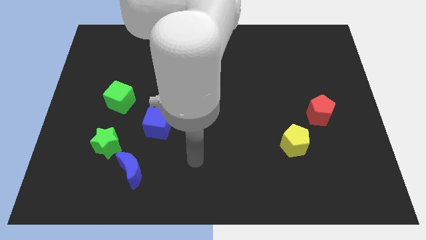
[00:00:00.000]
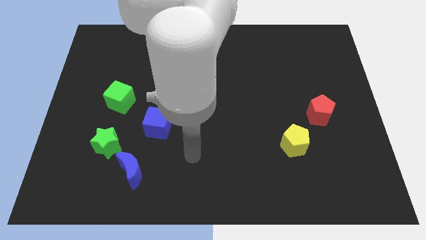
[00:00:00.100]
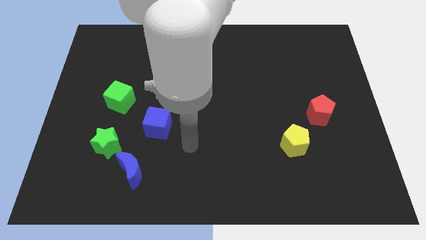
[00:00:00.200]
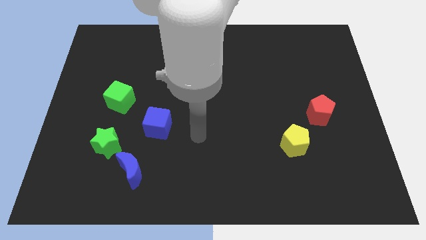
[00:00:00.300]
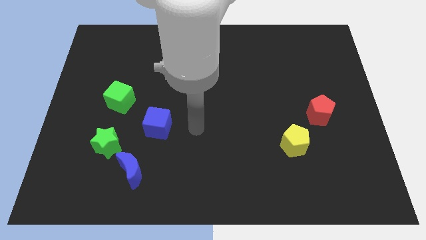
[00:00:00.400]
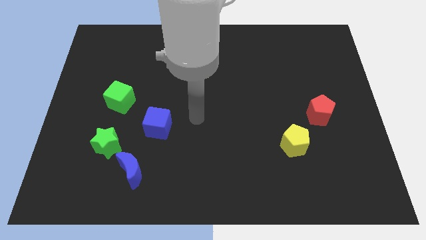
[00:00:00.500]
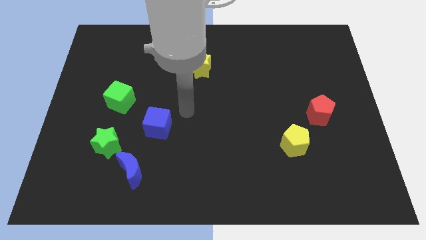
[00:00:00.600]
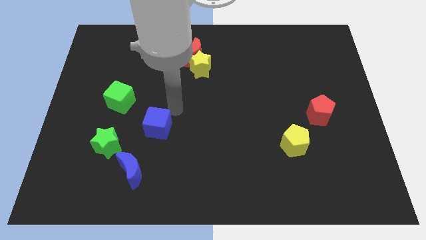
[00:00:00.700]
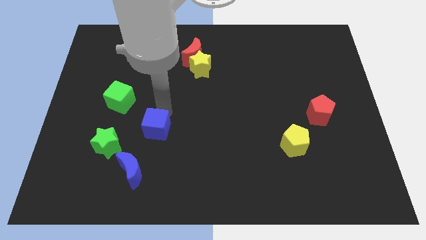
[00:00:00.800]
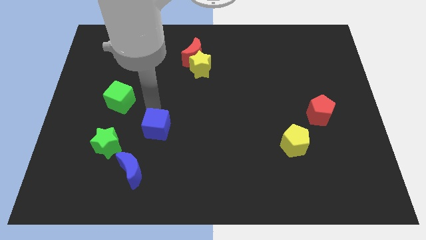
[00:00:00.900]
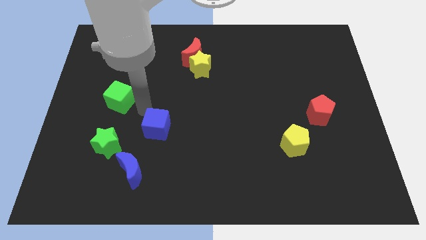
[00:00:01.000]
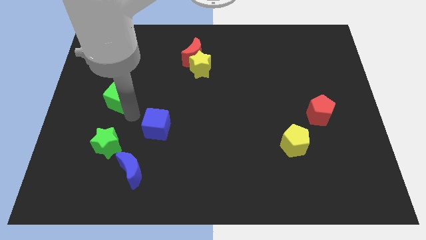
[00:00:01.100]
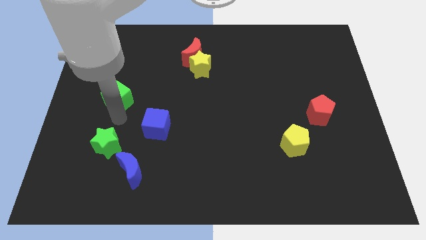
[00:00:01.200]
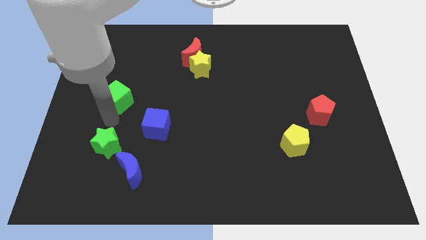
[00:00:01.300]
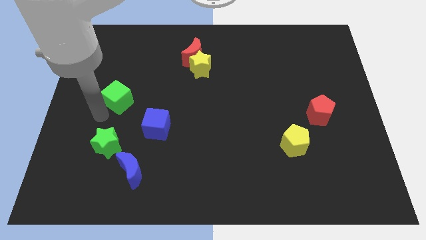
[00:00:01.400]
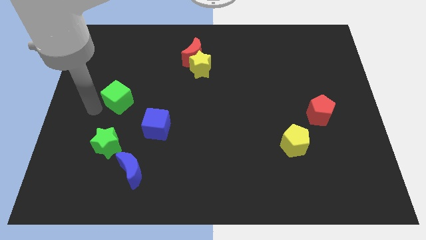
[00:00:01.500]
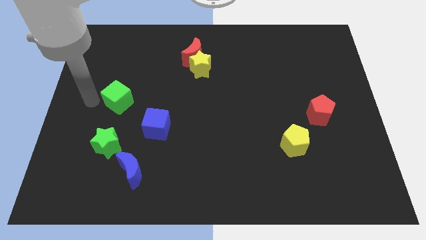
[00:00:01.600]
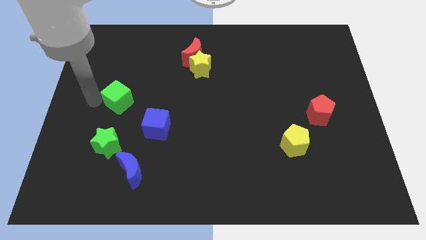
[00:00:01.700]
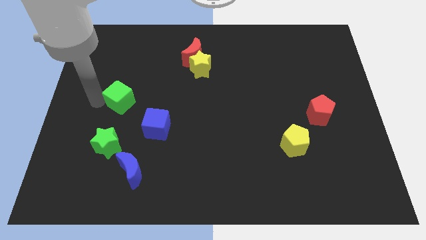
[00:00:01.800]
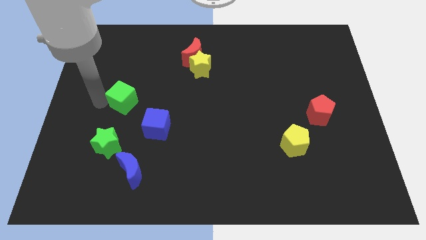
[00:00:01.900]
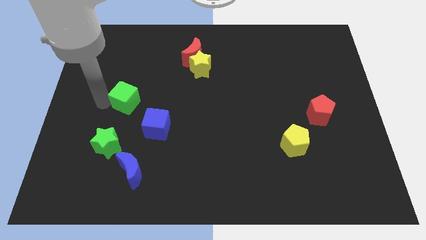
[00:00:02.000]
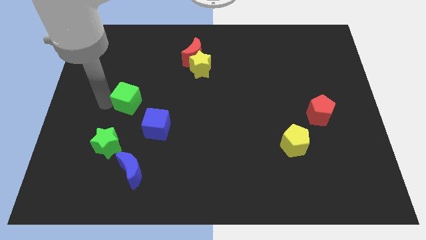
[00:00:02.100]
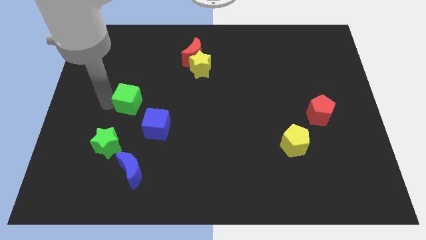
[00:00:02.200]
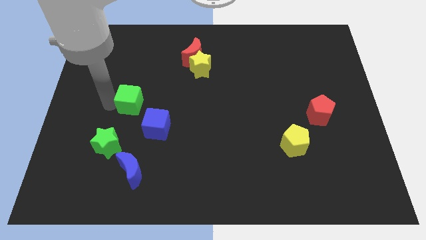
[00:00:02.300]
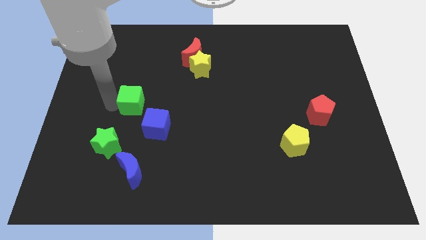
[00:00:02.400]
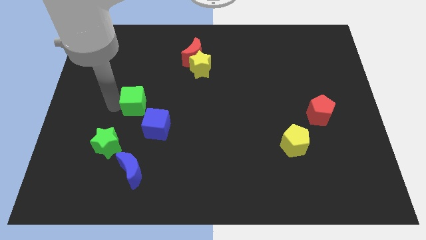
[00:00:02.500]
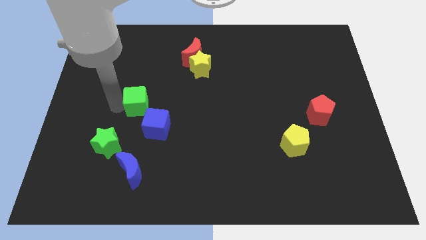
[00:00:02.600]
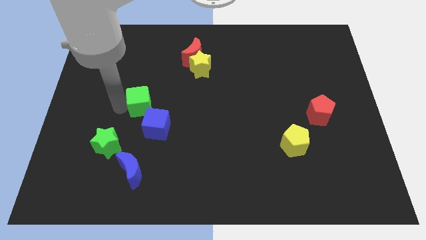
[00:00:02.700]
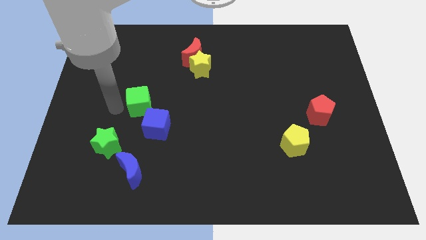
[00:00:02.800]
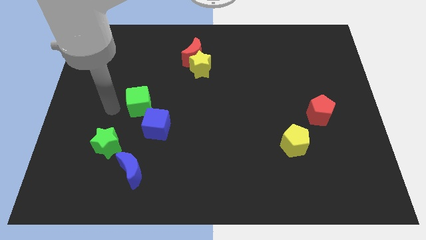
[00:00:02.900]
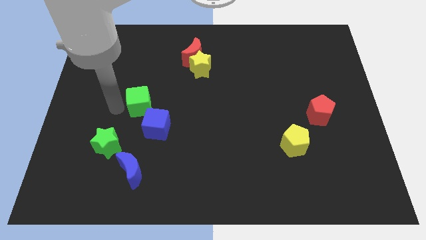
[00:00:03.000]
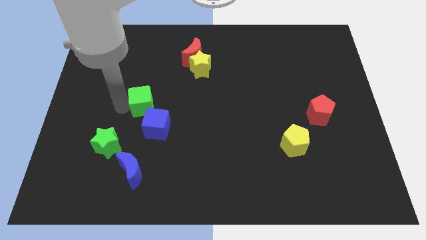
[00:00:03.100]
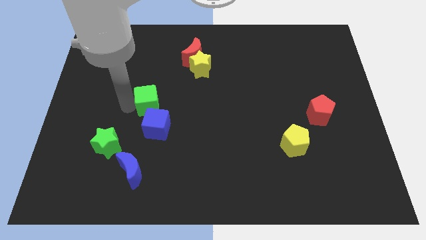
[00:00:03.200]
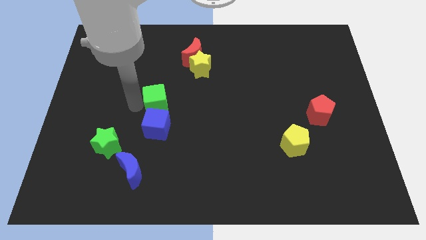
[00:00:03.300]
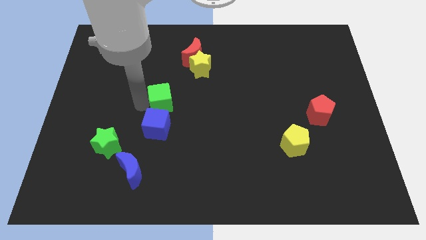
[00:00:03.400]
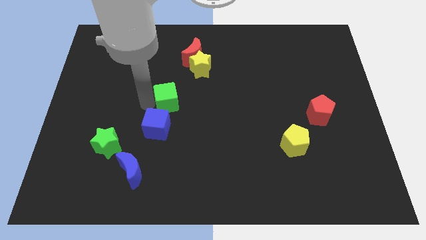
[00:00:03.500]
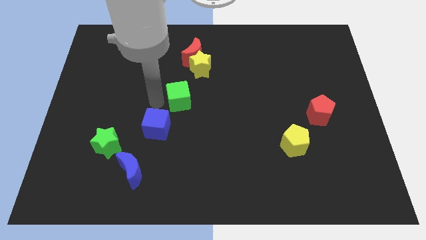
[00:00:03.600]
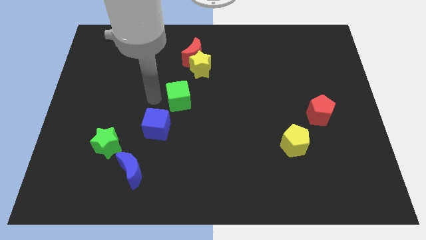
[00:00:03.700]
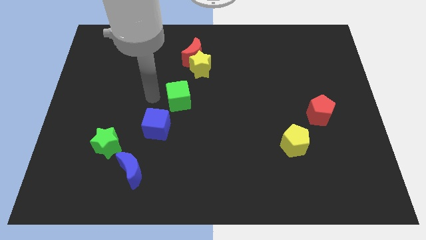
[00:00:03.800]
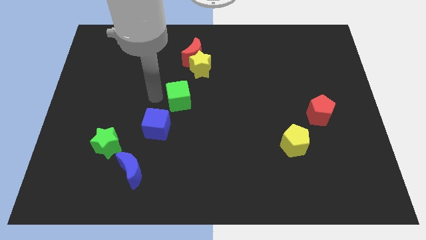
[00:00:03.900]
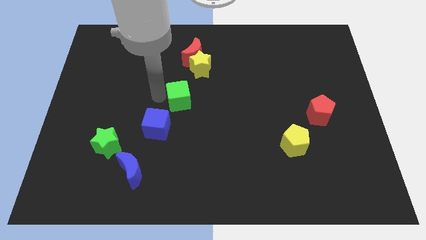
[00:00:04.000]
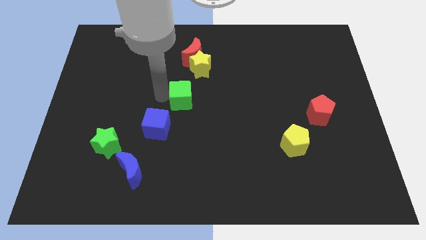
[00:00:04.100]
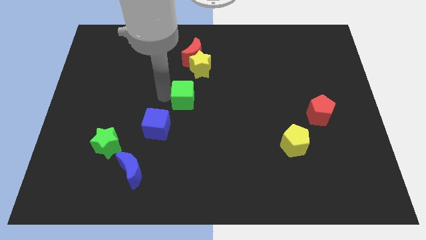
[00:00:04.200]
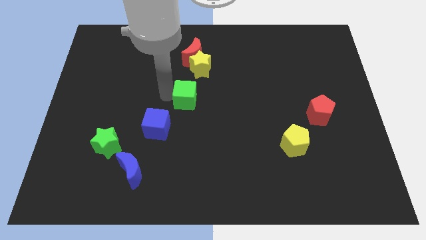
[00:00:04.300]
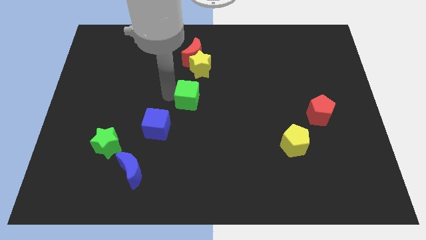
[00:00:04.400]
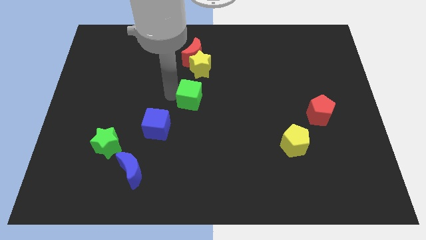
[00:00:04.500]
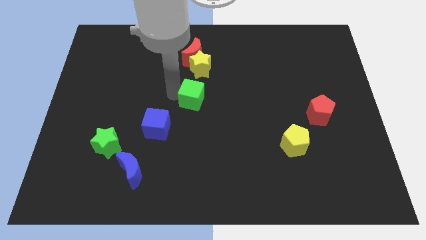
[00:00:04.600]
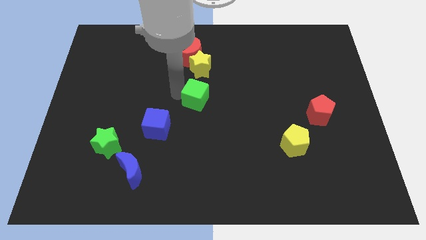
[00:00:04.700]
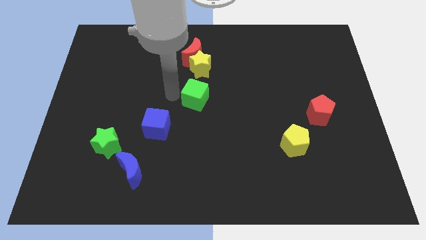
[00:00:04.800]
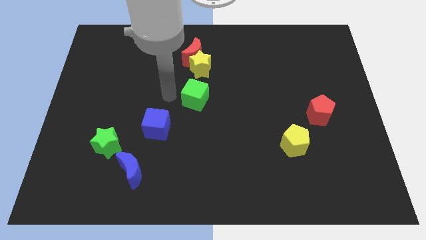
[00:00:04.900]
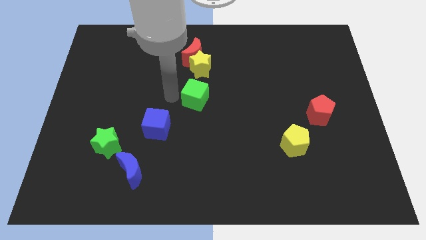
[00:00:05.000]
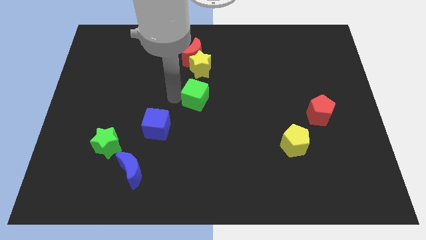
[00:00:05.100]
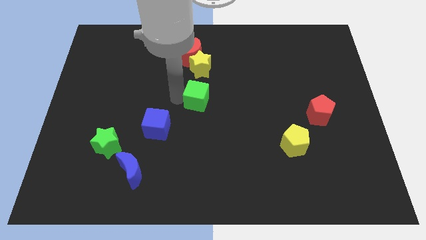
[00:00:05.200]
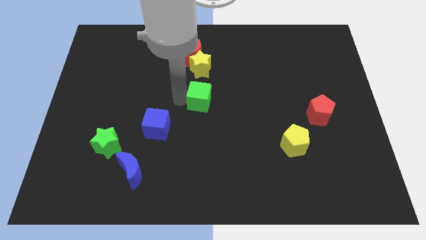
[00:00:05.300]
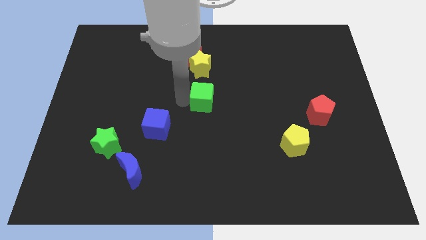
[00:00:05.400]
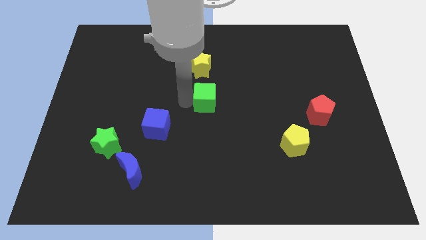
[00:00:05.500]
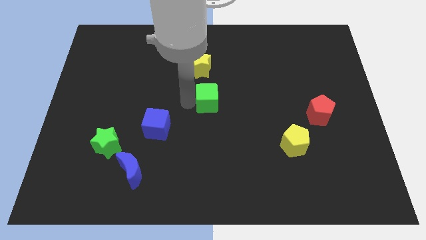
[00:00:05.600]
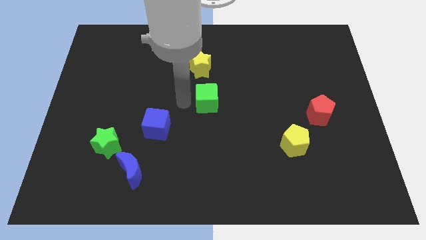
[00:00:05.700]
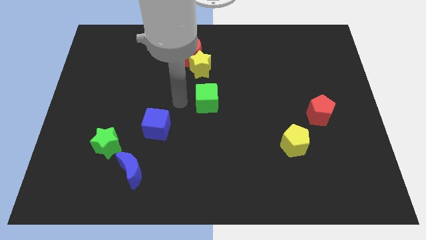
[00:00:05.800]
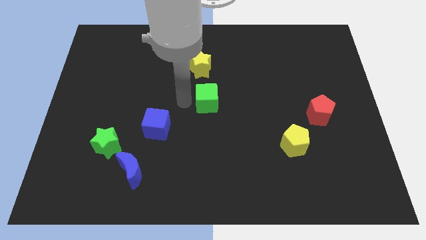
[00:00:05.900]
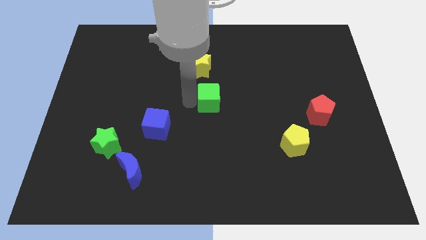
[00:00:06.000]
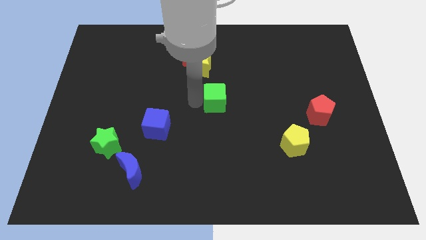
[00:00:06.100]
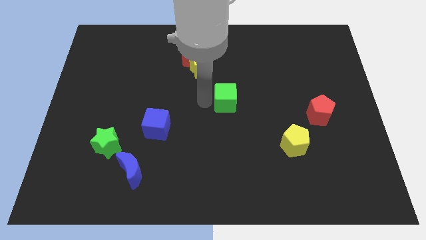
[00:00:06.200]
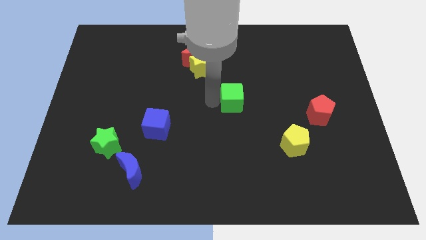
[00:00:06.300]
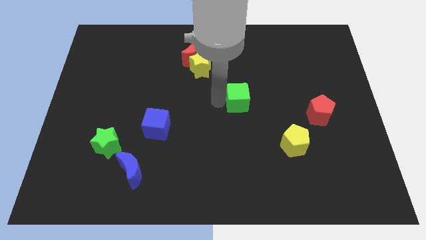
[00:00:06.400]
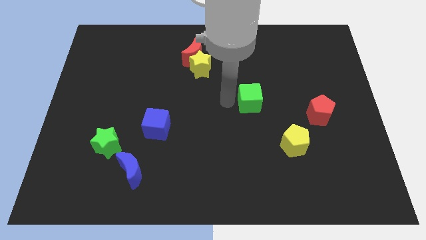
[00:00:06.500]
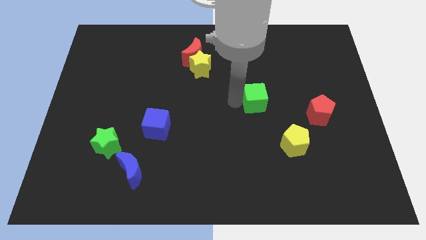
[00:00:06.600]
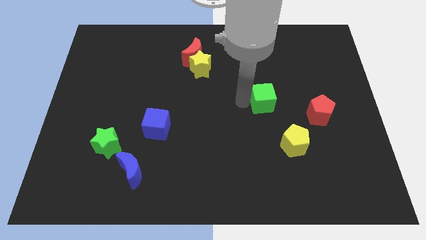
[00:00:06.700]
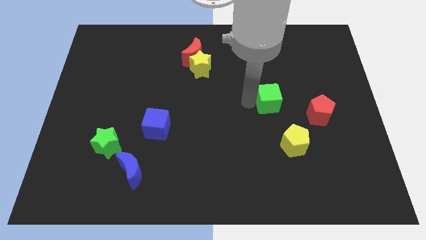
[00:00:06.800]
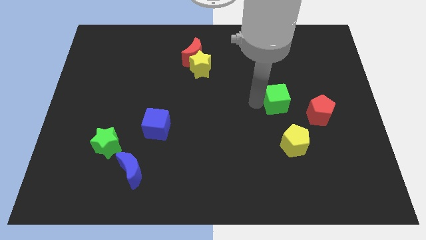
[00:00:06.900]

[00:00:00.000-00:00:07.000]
put the green cube diagonally up and to the left of the red pentagon

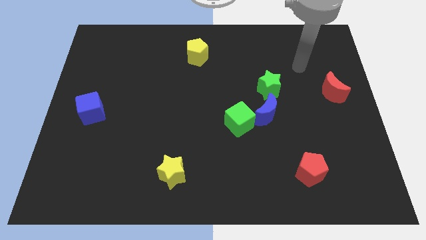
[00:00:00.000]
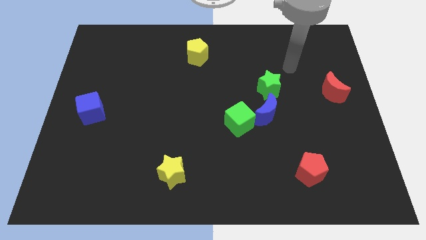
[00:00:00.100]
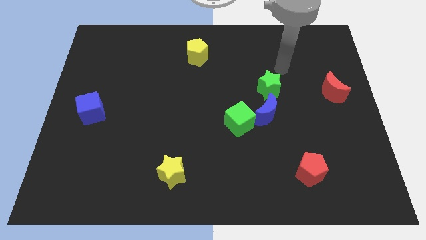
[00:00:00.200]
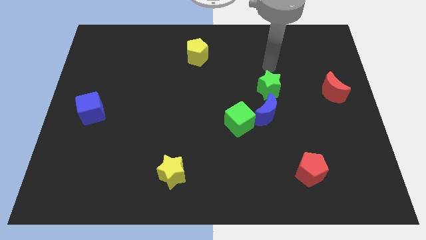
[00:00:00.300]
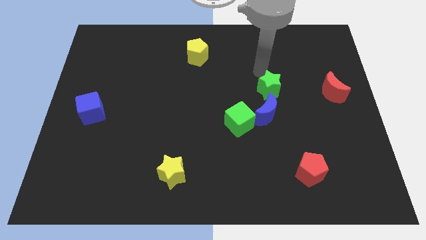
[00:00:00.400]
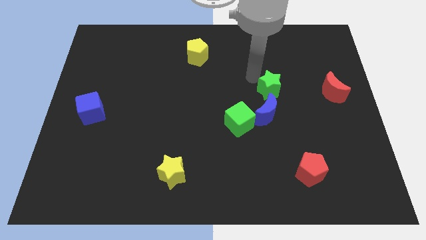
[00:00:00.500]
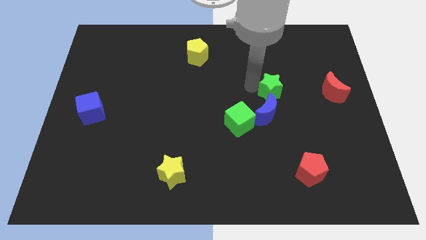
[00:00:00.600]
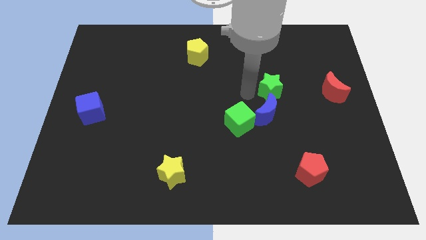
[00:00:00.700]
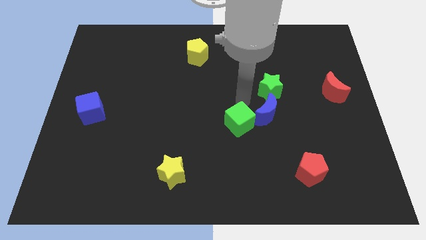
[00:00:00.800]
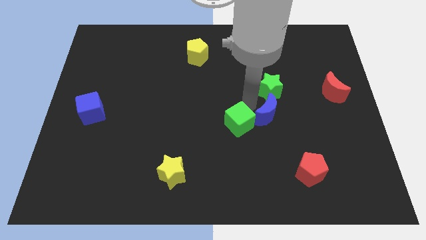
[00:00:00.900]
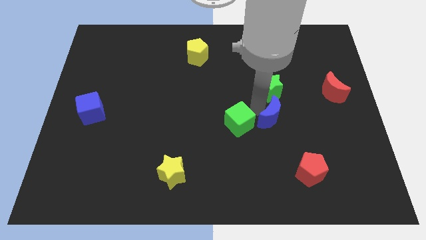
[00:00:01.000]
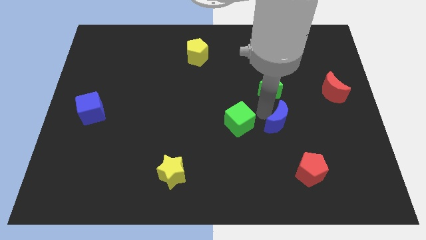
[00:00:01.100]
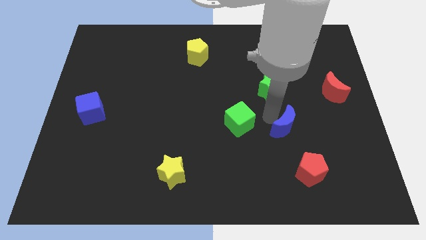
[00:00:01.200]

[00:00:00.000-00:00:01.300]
put the blue moon to the top of the red pentagon
